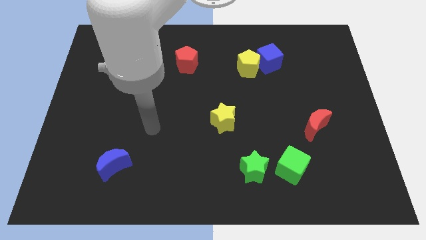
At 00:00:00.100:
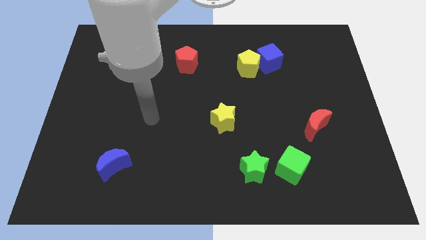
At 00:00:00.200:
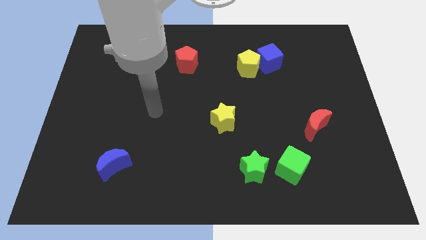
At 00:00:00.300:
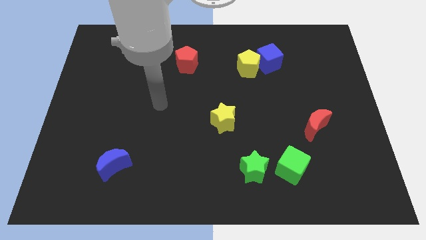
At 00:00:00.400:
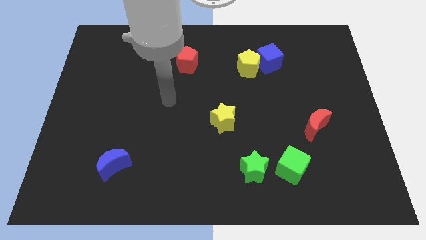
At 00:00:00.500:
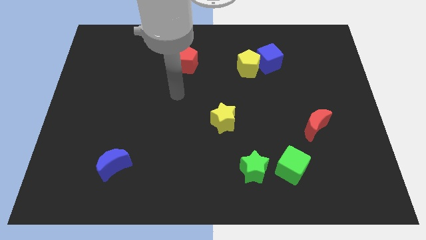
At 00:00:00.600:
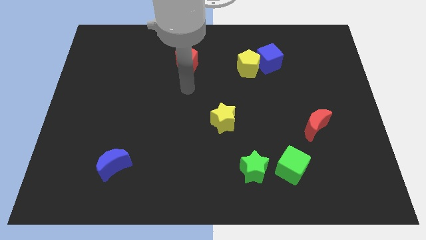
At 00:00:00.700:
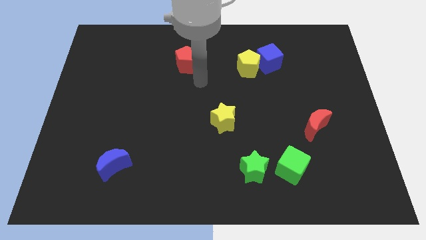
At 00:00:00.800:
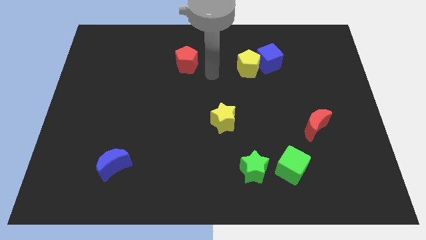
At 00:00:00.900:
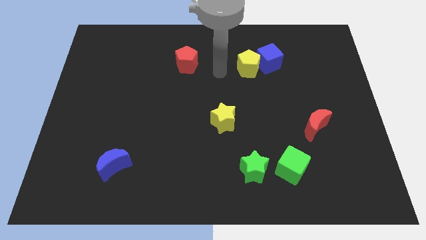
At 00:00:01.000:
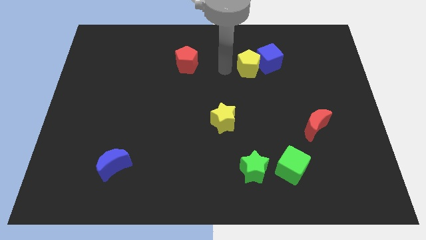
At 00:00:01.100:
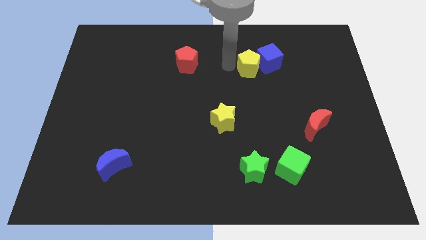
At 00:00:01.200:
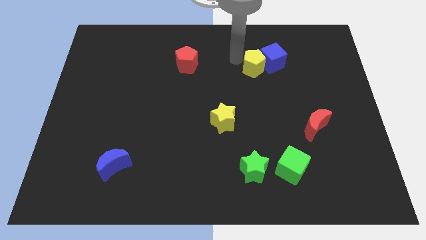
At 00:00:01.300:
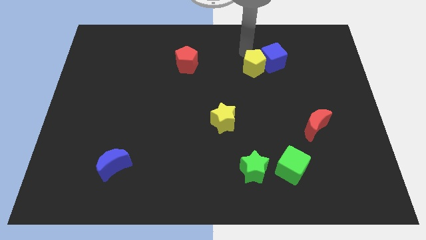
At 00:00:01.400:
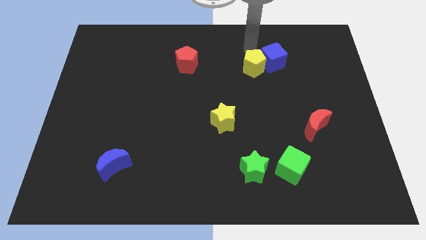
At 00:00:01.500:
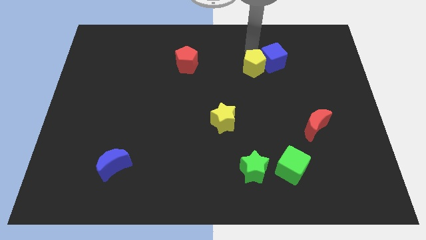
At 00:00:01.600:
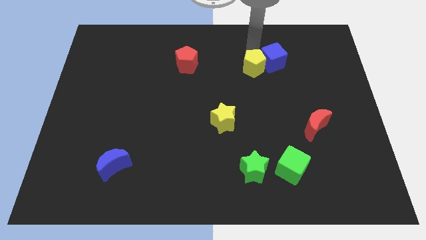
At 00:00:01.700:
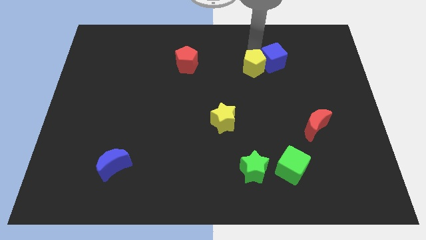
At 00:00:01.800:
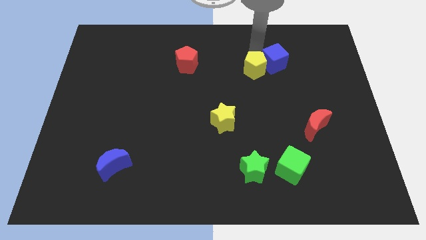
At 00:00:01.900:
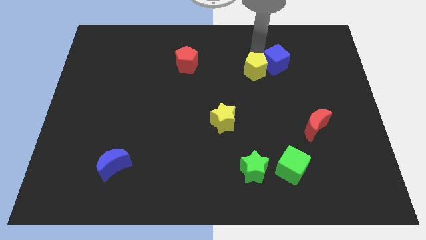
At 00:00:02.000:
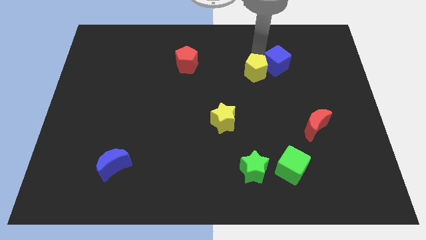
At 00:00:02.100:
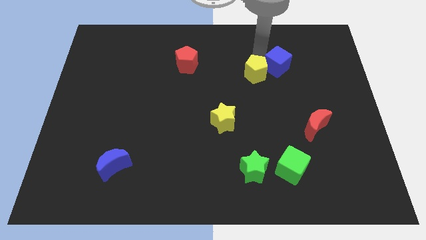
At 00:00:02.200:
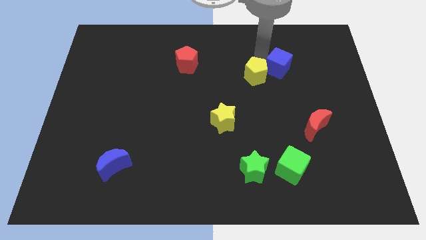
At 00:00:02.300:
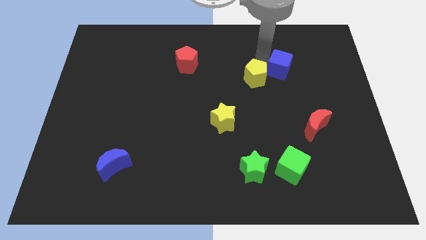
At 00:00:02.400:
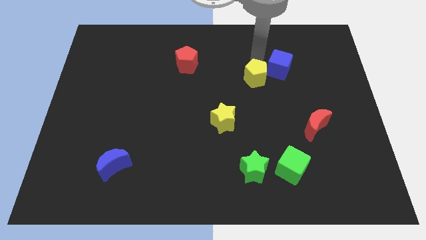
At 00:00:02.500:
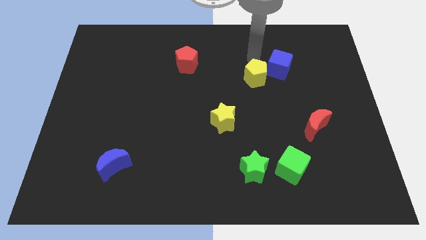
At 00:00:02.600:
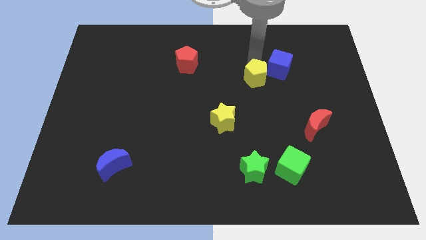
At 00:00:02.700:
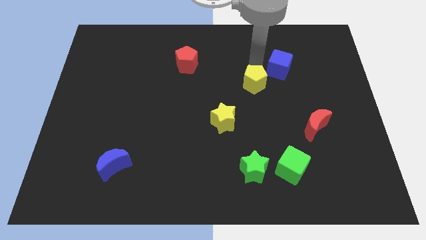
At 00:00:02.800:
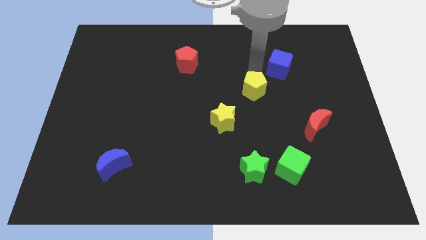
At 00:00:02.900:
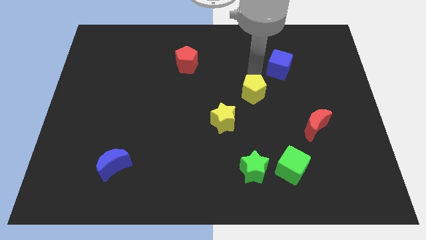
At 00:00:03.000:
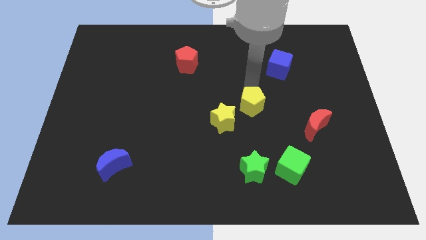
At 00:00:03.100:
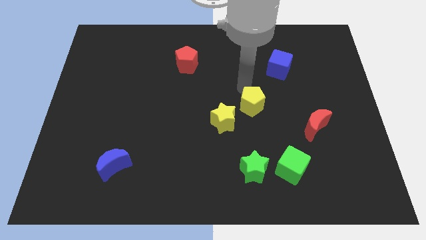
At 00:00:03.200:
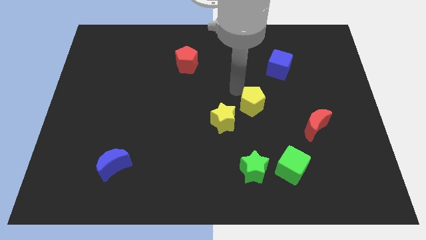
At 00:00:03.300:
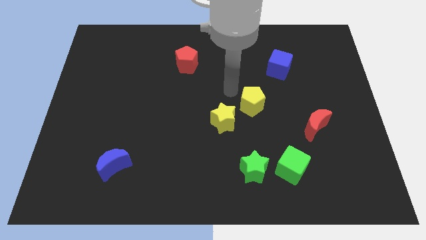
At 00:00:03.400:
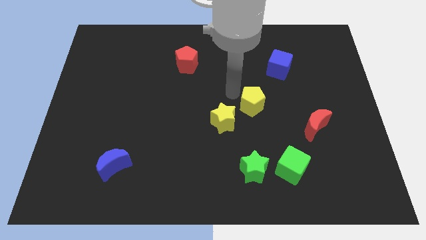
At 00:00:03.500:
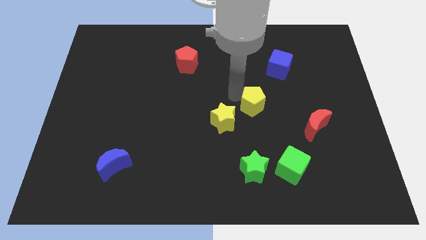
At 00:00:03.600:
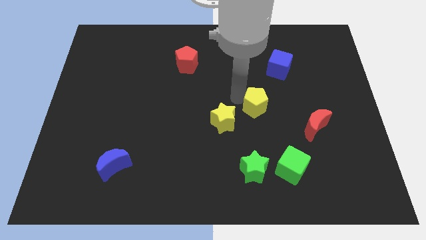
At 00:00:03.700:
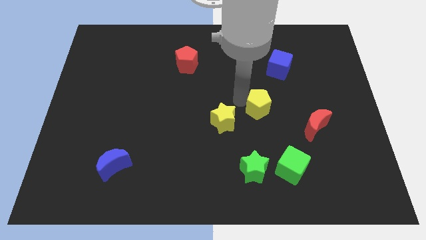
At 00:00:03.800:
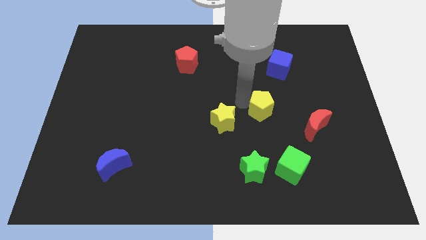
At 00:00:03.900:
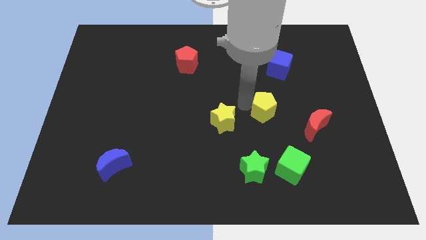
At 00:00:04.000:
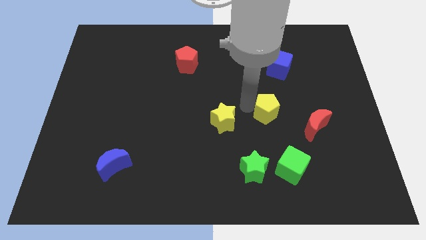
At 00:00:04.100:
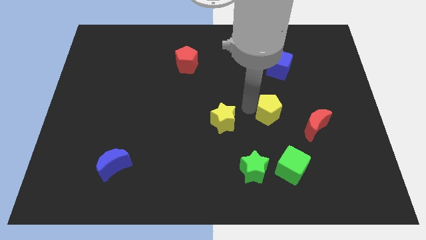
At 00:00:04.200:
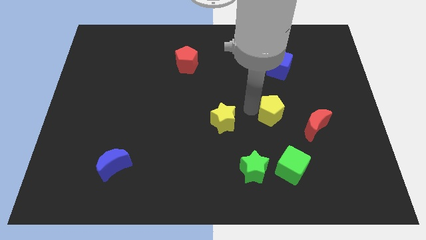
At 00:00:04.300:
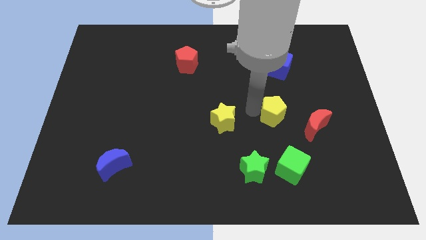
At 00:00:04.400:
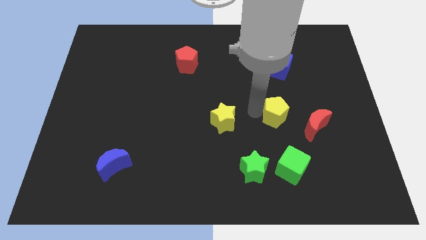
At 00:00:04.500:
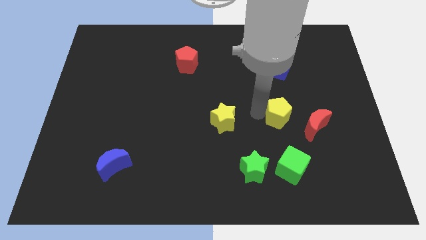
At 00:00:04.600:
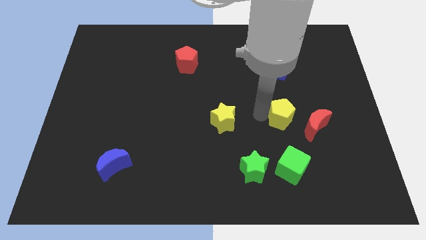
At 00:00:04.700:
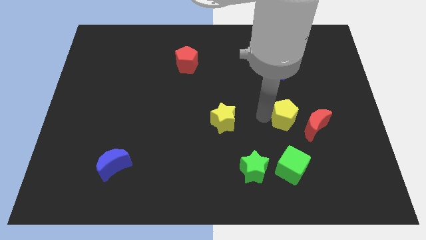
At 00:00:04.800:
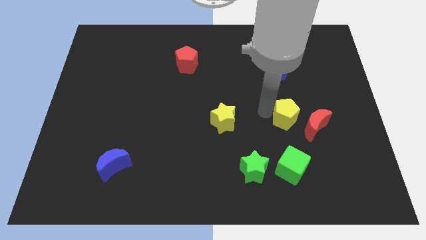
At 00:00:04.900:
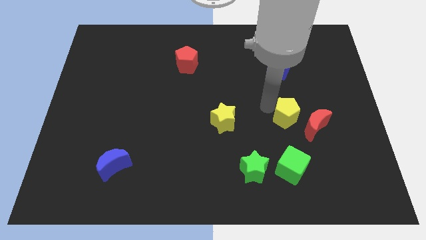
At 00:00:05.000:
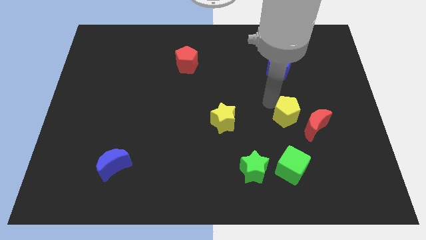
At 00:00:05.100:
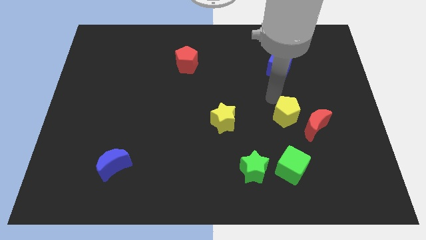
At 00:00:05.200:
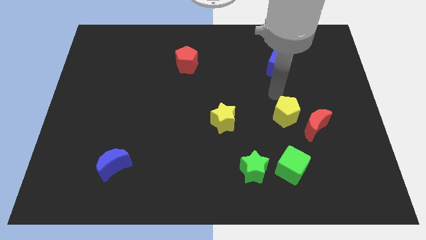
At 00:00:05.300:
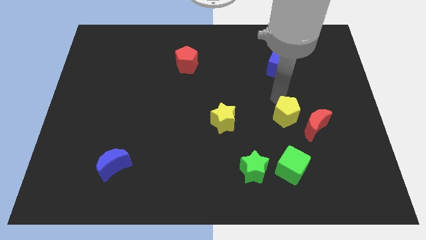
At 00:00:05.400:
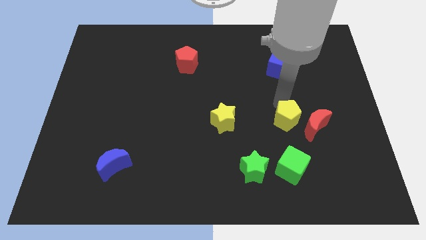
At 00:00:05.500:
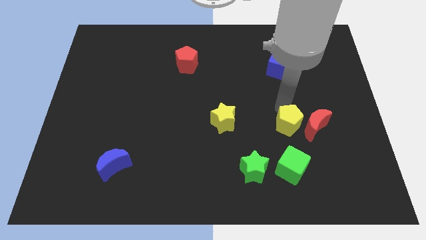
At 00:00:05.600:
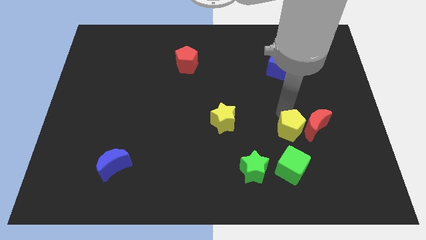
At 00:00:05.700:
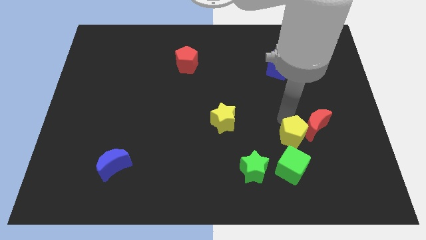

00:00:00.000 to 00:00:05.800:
push the yellow pentagon diagonally up and to the right of the green cube
